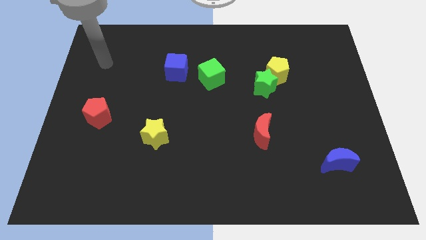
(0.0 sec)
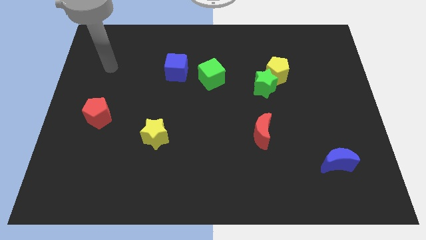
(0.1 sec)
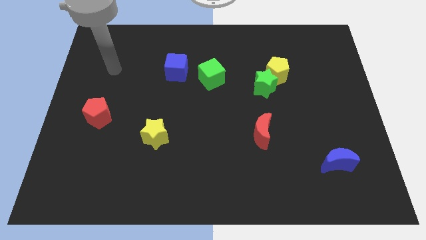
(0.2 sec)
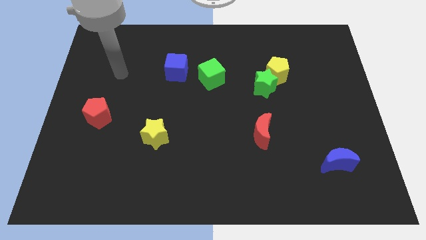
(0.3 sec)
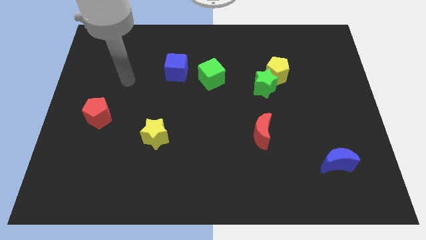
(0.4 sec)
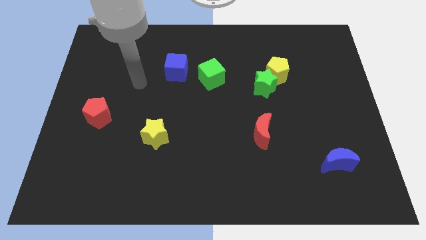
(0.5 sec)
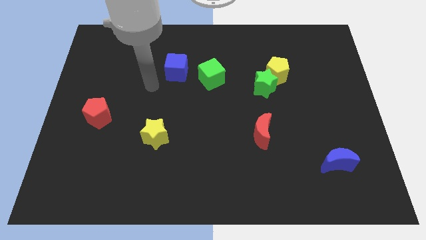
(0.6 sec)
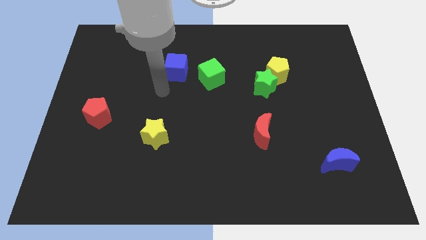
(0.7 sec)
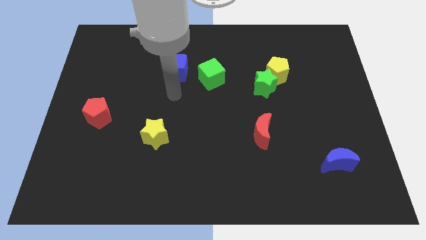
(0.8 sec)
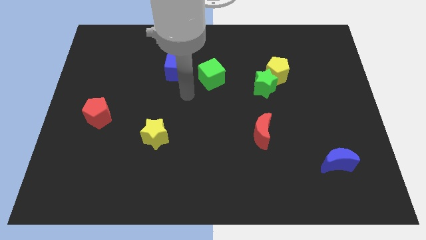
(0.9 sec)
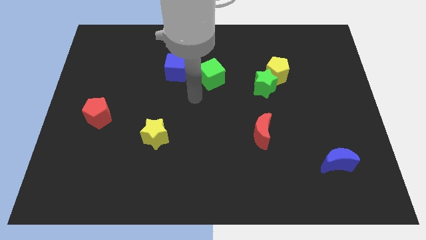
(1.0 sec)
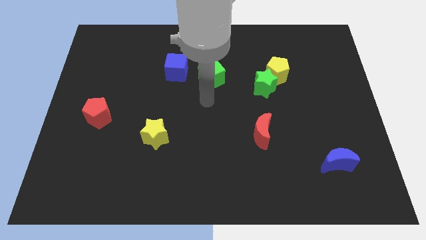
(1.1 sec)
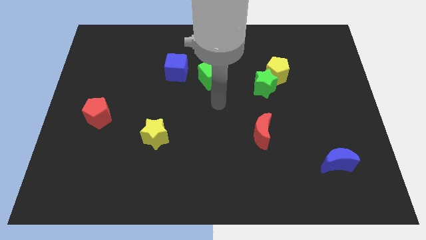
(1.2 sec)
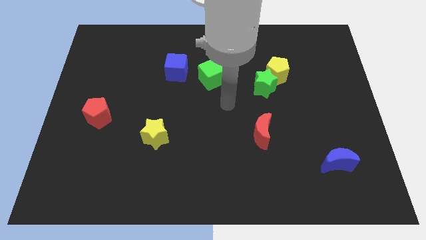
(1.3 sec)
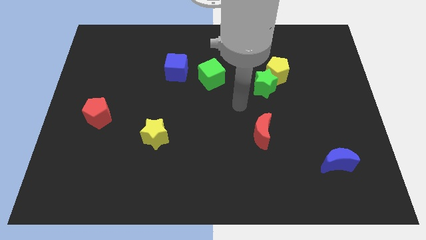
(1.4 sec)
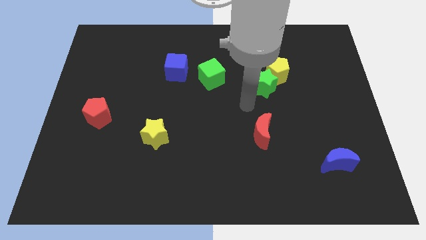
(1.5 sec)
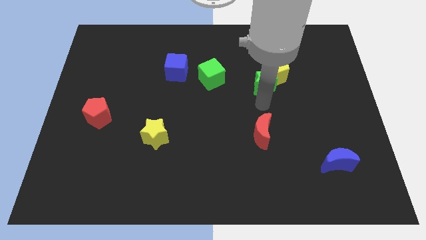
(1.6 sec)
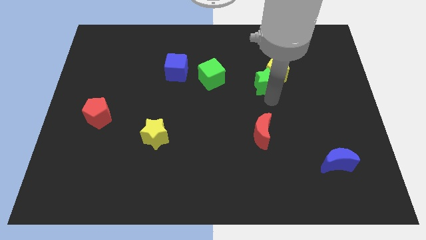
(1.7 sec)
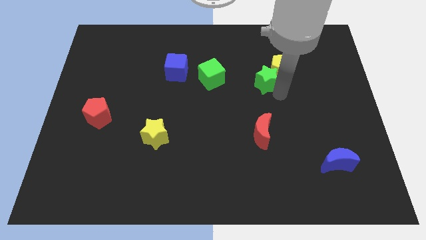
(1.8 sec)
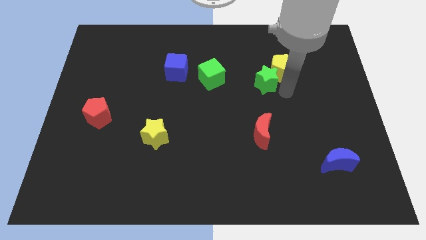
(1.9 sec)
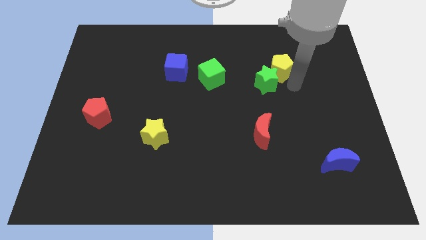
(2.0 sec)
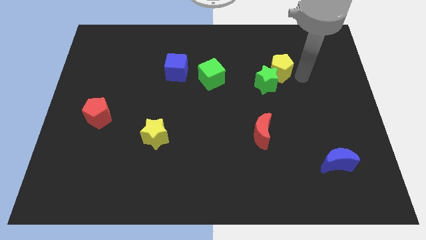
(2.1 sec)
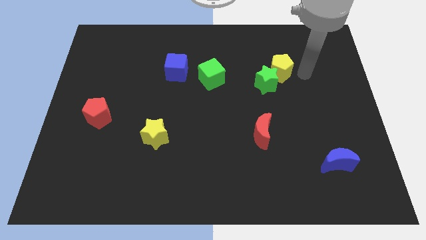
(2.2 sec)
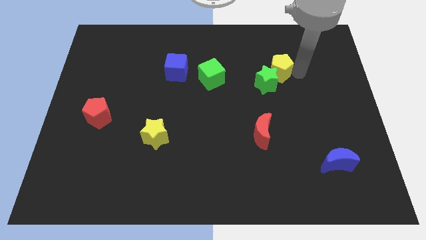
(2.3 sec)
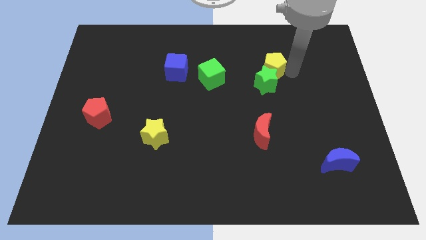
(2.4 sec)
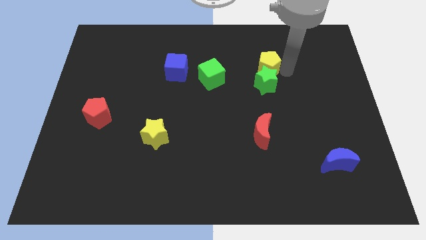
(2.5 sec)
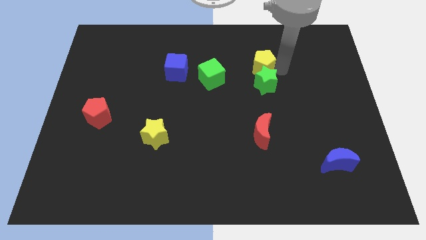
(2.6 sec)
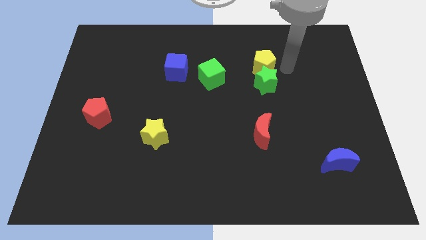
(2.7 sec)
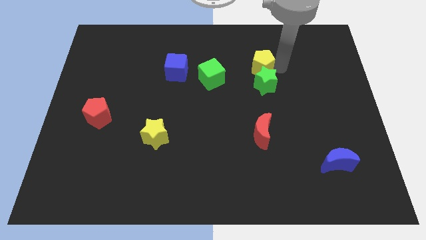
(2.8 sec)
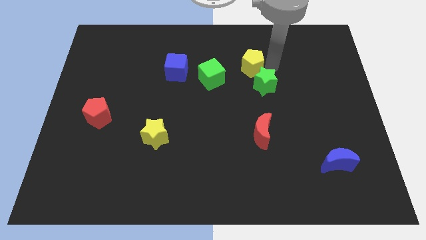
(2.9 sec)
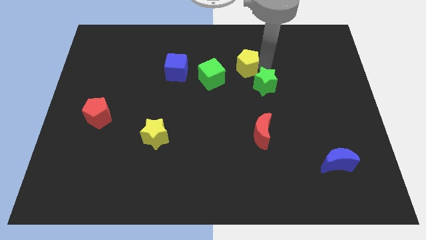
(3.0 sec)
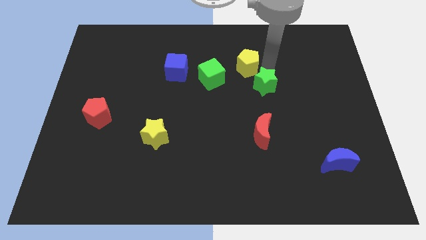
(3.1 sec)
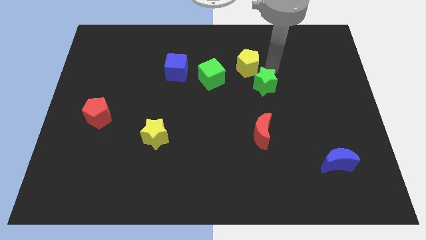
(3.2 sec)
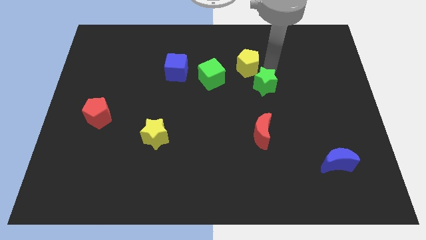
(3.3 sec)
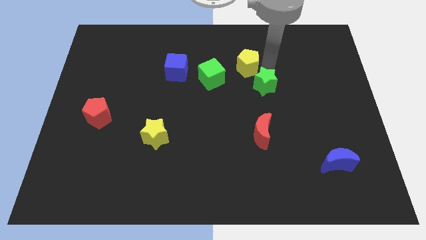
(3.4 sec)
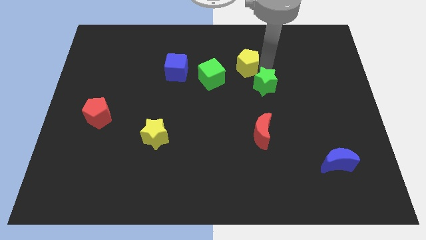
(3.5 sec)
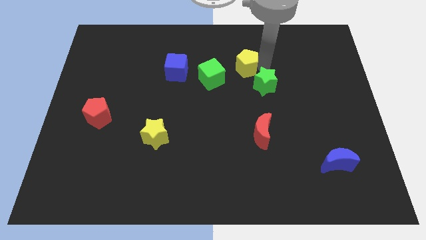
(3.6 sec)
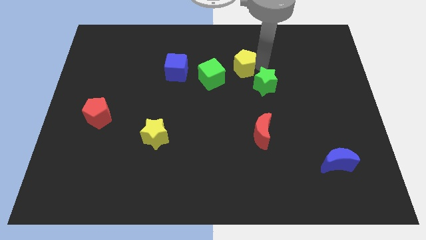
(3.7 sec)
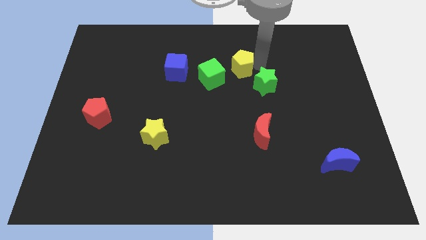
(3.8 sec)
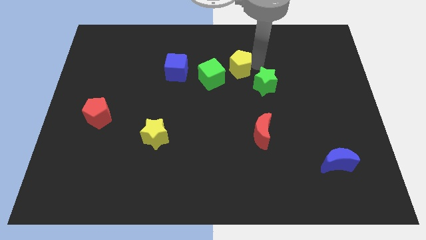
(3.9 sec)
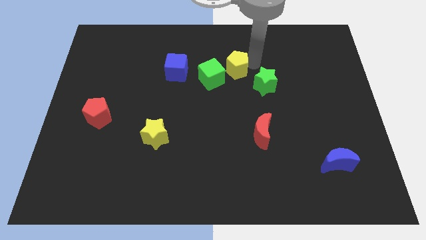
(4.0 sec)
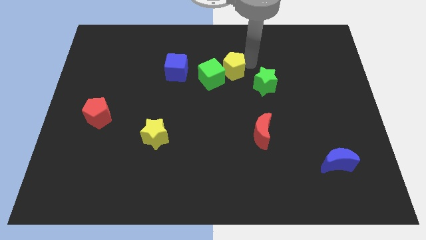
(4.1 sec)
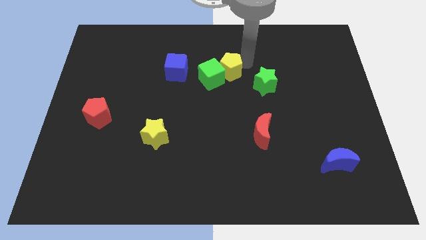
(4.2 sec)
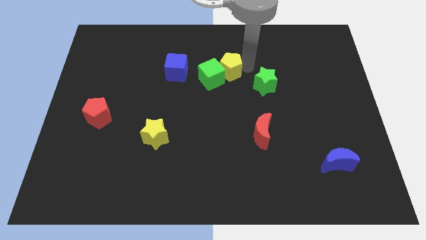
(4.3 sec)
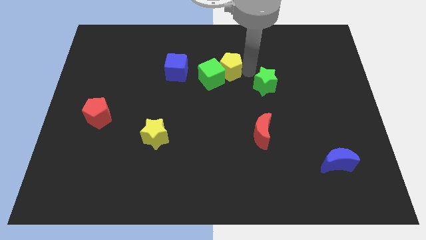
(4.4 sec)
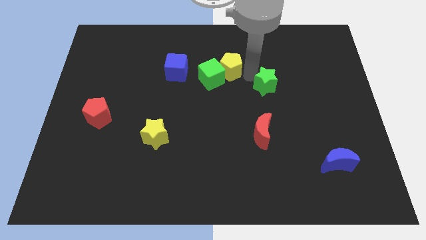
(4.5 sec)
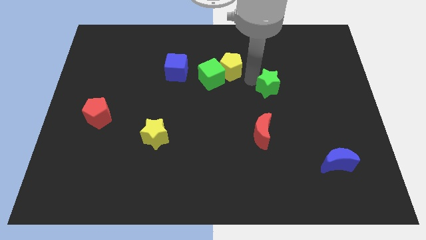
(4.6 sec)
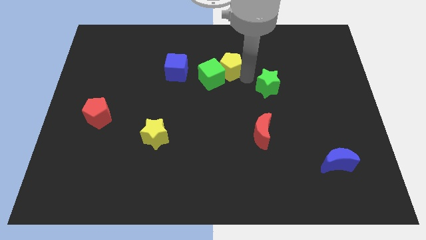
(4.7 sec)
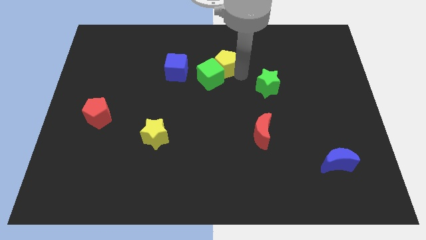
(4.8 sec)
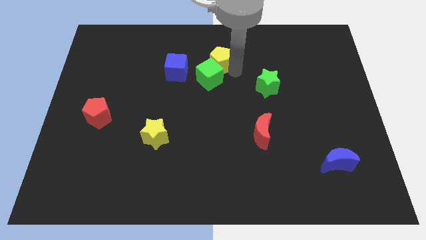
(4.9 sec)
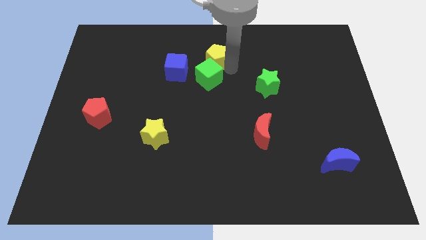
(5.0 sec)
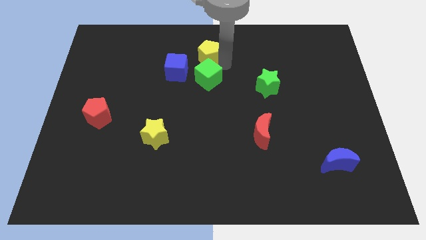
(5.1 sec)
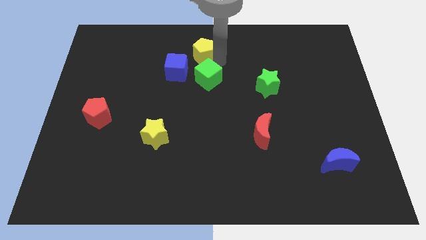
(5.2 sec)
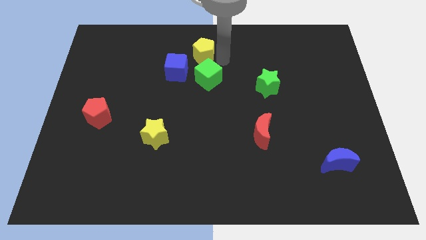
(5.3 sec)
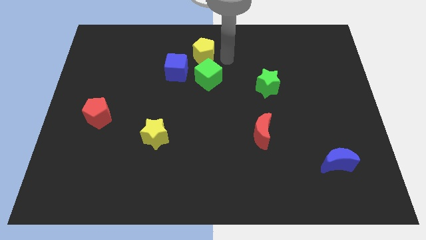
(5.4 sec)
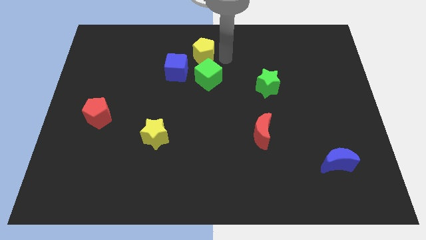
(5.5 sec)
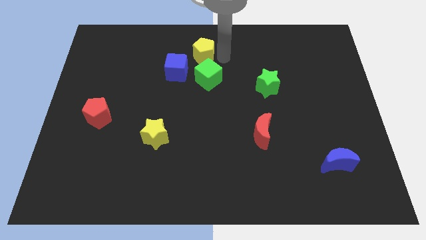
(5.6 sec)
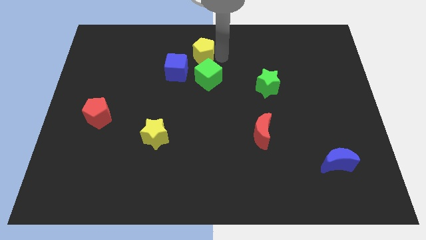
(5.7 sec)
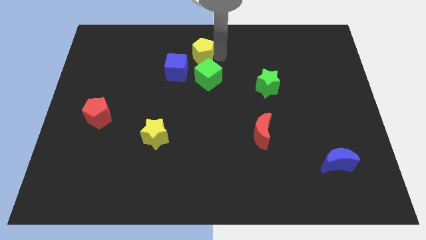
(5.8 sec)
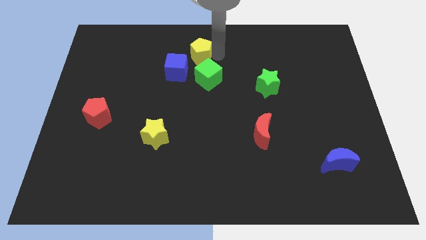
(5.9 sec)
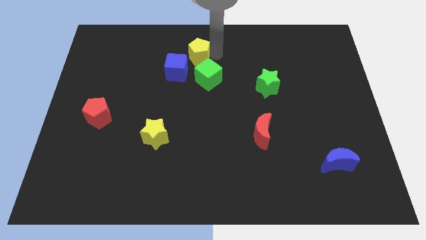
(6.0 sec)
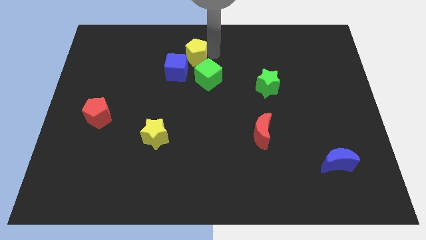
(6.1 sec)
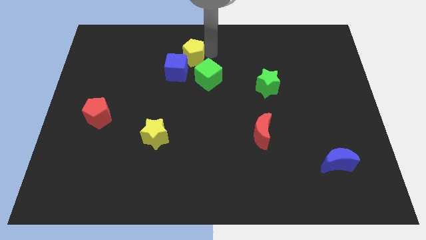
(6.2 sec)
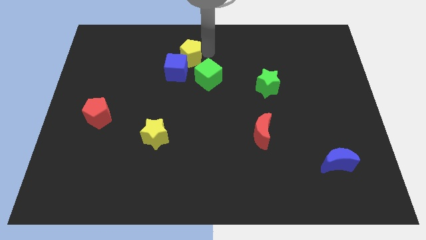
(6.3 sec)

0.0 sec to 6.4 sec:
slide the yellow pentagon left

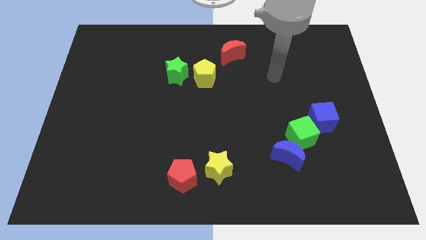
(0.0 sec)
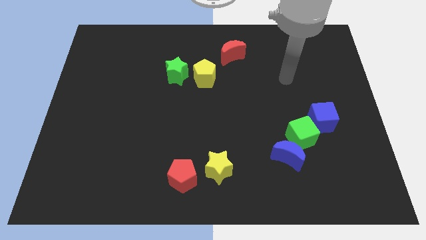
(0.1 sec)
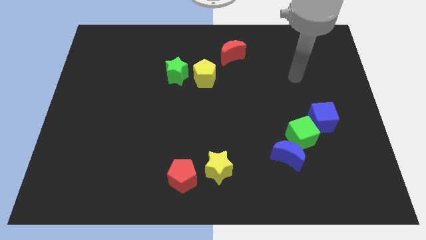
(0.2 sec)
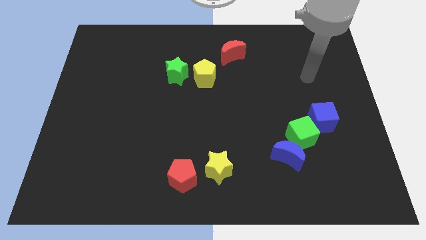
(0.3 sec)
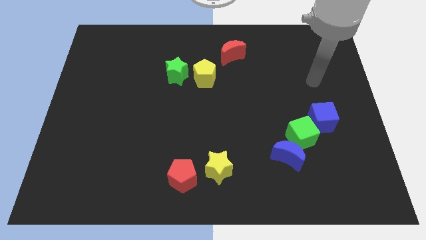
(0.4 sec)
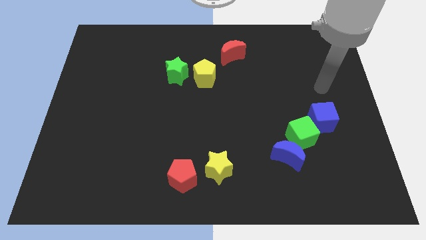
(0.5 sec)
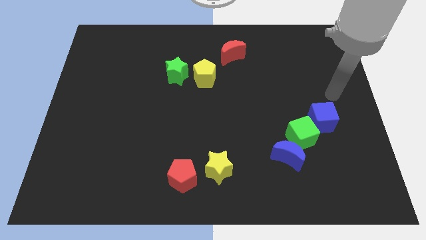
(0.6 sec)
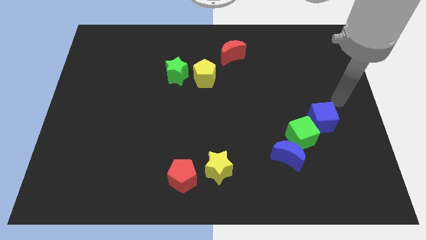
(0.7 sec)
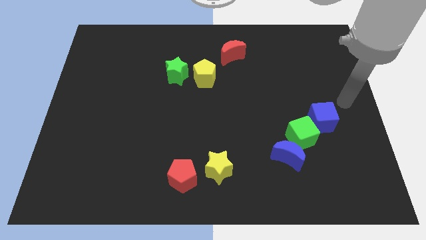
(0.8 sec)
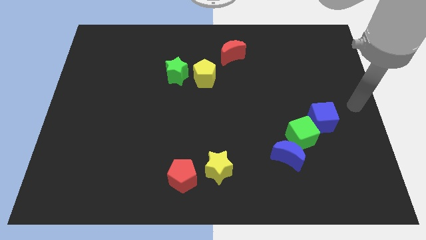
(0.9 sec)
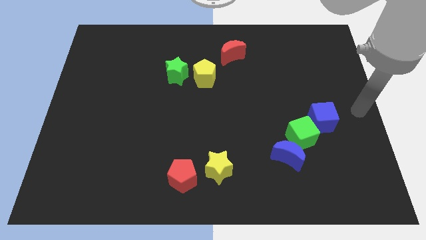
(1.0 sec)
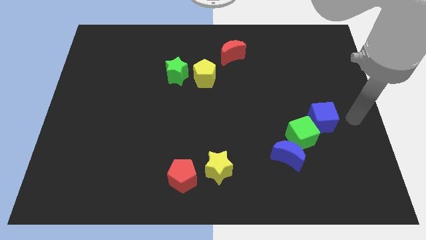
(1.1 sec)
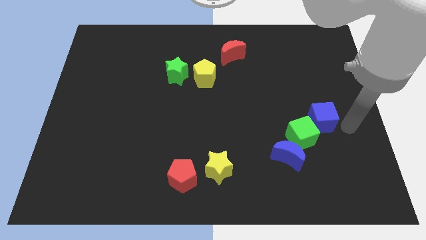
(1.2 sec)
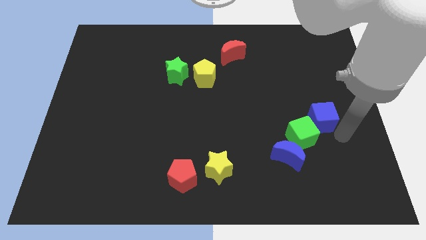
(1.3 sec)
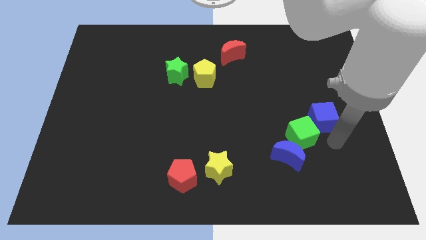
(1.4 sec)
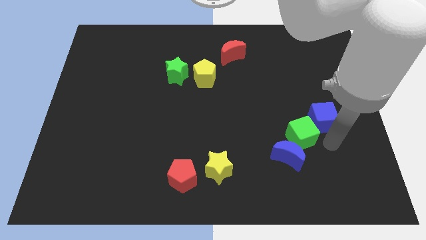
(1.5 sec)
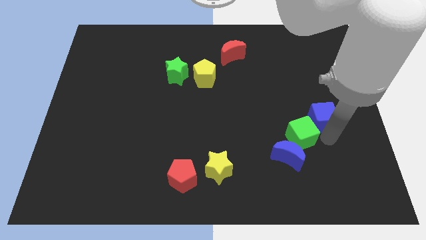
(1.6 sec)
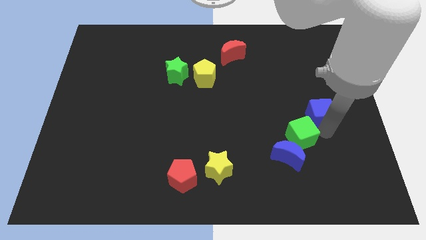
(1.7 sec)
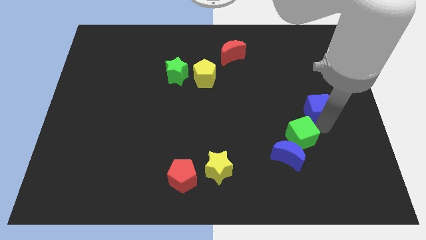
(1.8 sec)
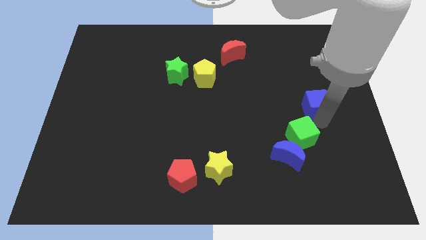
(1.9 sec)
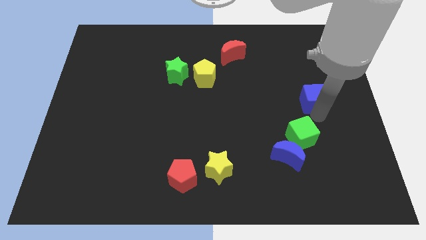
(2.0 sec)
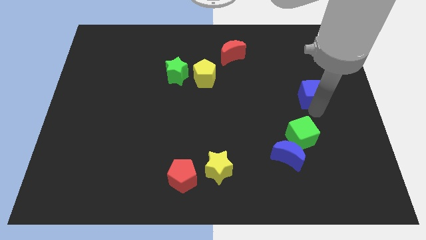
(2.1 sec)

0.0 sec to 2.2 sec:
slide the blue cube a bit upwards
